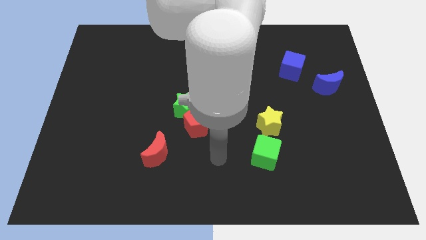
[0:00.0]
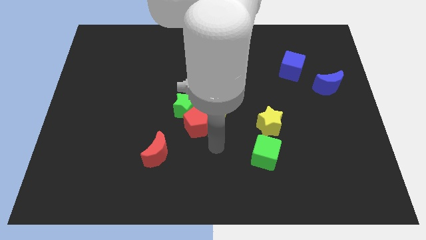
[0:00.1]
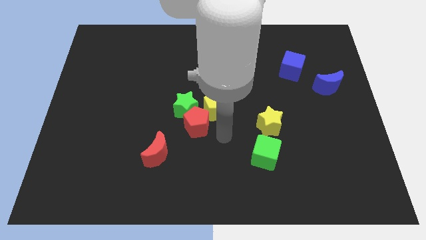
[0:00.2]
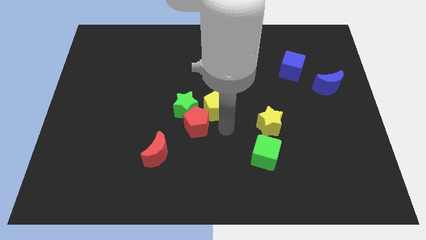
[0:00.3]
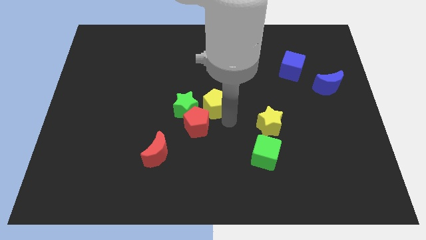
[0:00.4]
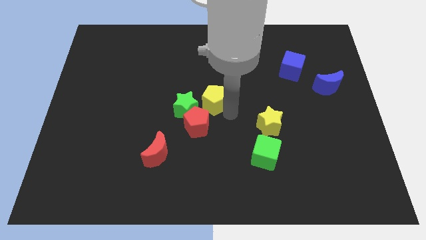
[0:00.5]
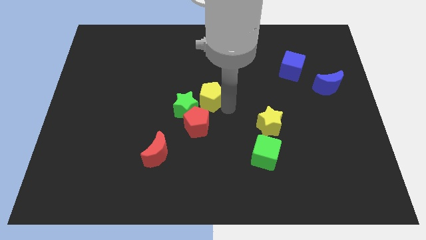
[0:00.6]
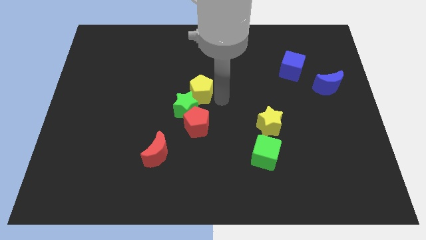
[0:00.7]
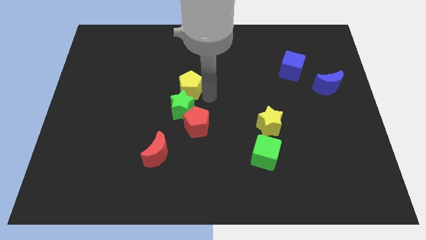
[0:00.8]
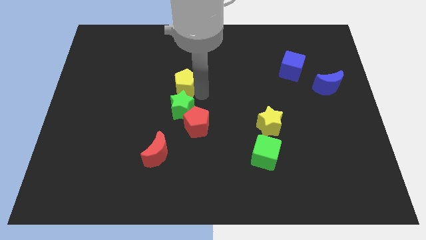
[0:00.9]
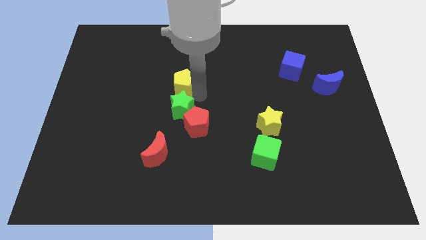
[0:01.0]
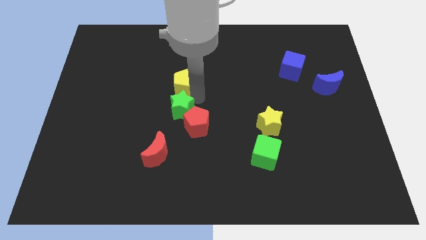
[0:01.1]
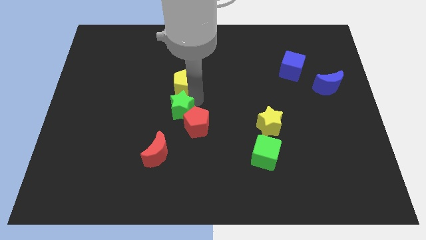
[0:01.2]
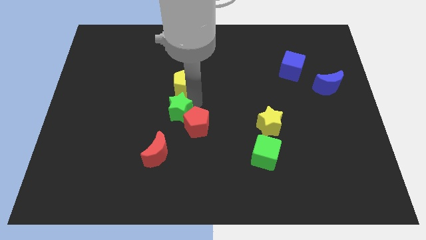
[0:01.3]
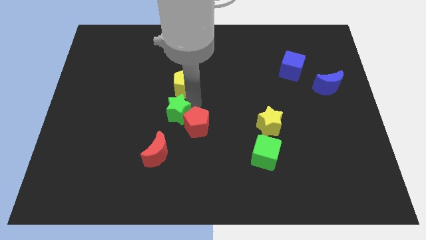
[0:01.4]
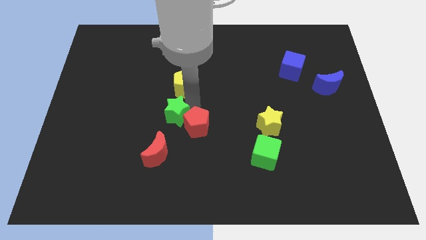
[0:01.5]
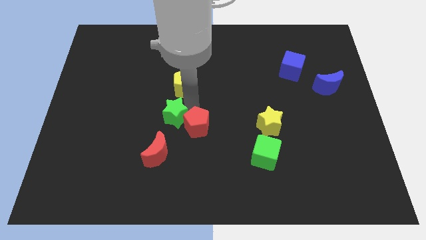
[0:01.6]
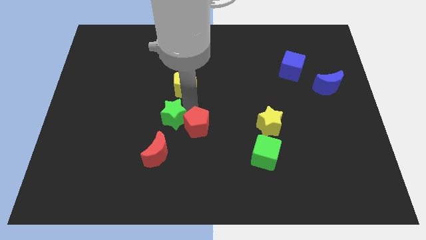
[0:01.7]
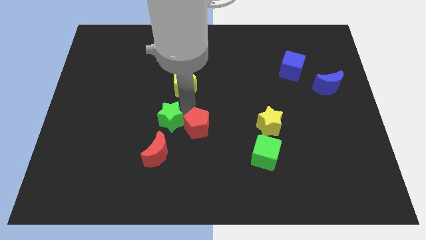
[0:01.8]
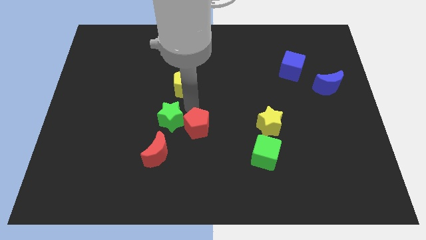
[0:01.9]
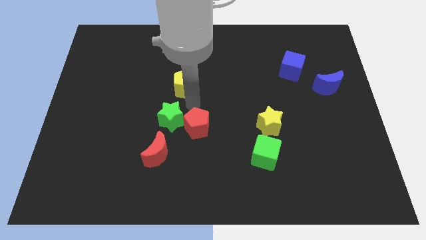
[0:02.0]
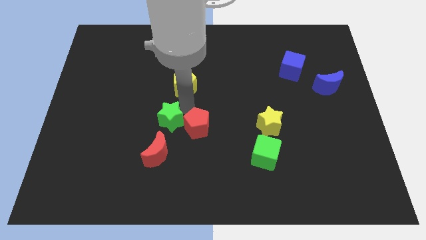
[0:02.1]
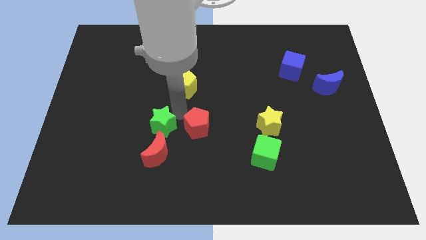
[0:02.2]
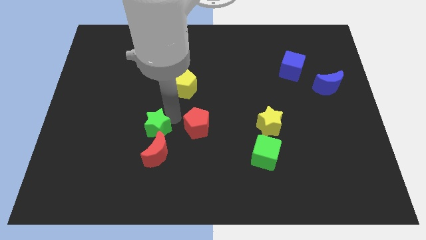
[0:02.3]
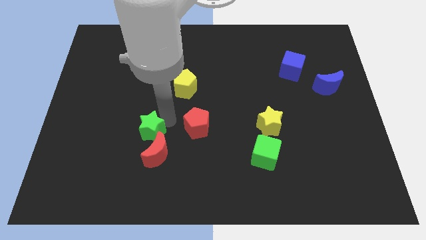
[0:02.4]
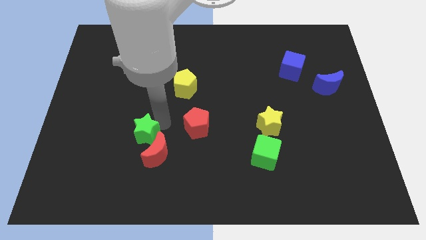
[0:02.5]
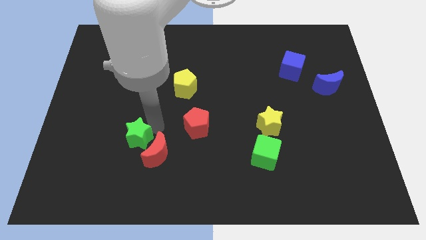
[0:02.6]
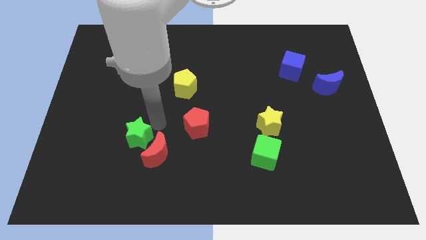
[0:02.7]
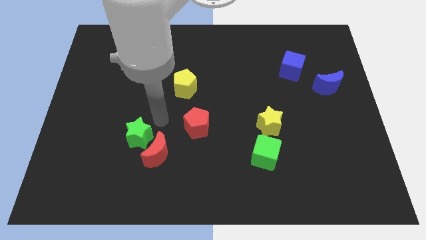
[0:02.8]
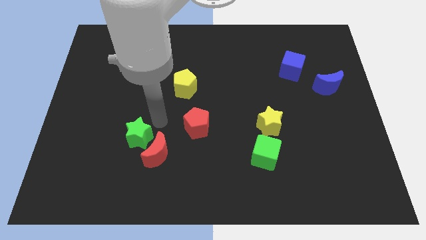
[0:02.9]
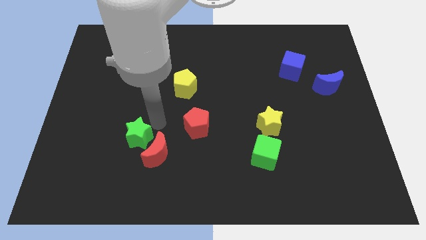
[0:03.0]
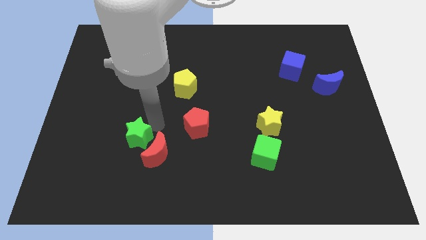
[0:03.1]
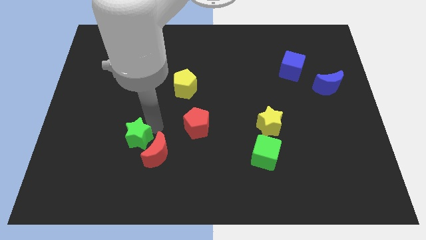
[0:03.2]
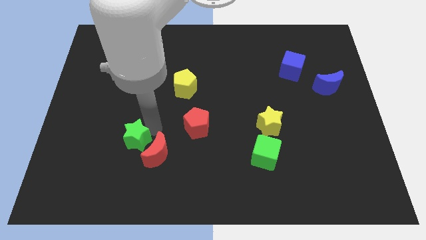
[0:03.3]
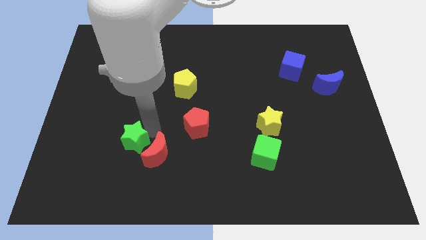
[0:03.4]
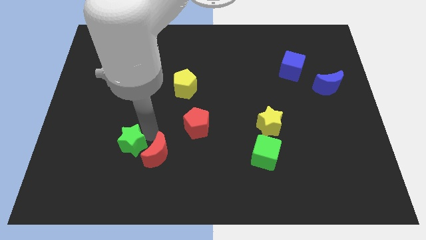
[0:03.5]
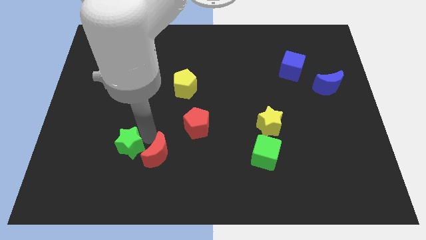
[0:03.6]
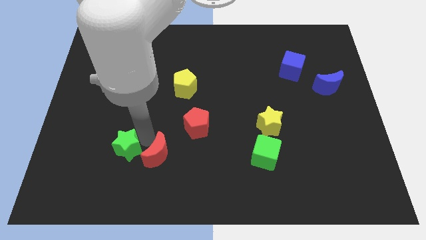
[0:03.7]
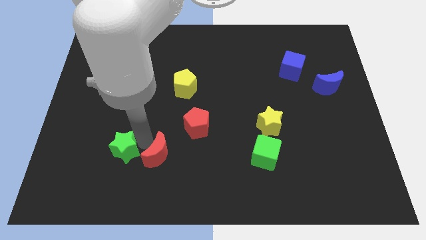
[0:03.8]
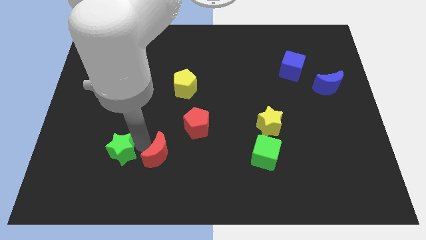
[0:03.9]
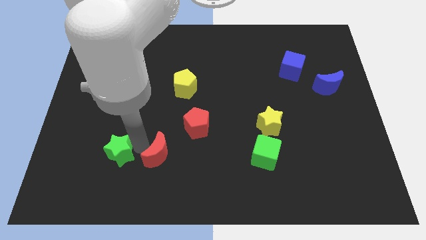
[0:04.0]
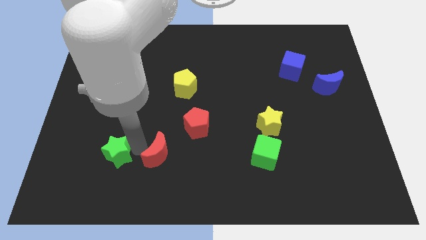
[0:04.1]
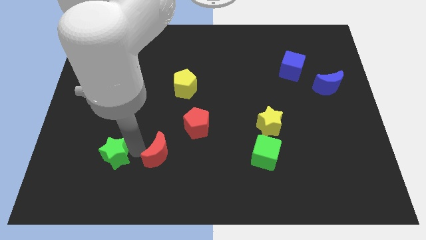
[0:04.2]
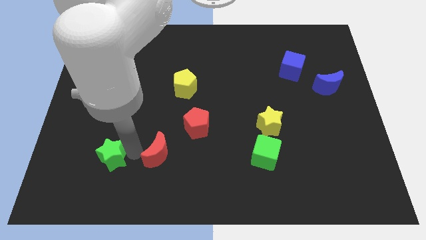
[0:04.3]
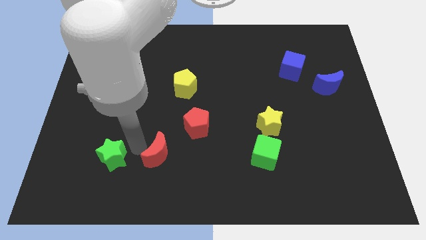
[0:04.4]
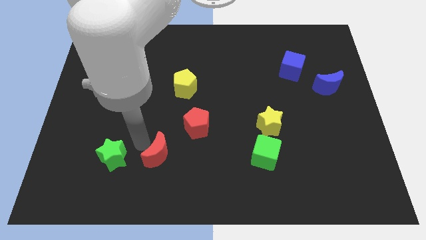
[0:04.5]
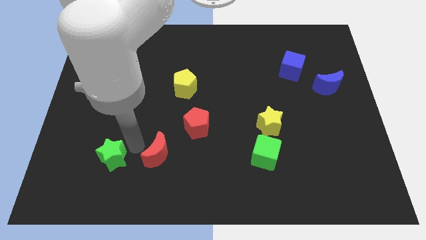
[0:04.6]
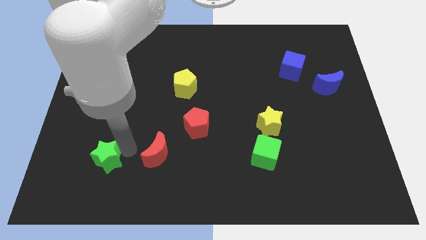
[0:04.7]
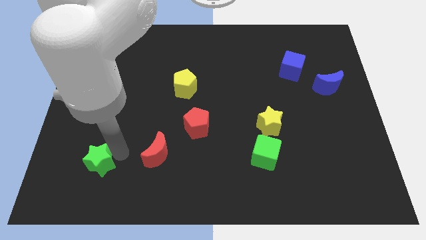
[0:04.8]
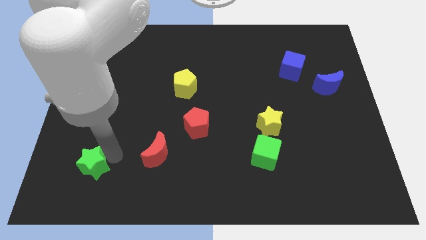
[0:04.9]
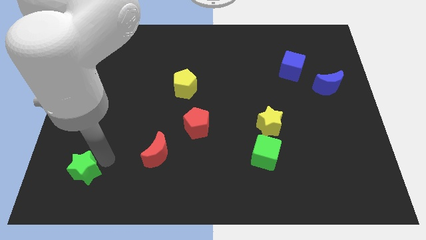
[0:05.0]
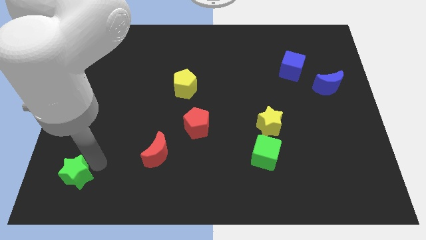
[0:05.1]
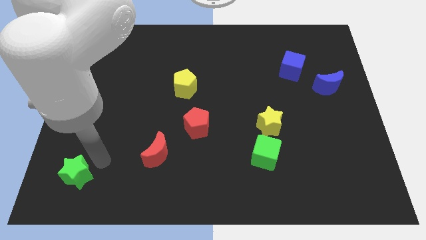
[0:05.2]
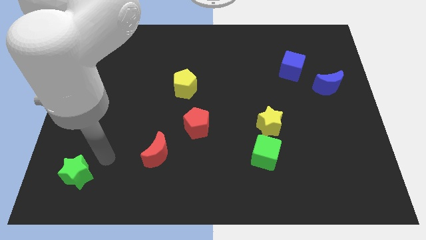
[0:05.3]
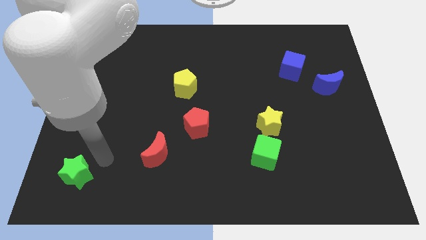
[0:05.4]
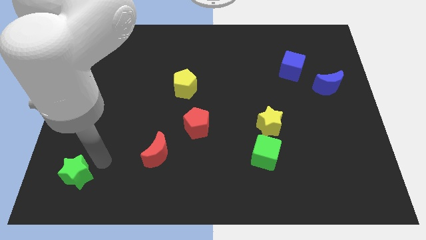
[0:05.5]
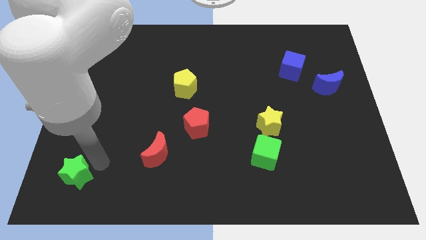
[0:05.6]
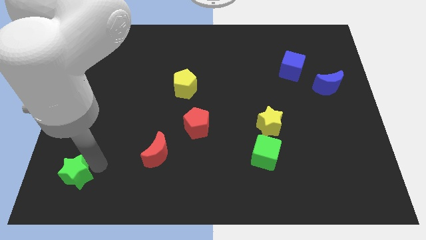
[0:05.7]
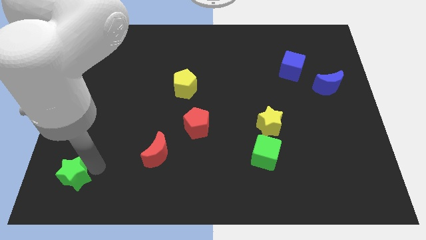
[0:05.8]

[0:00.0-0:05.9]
slide the green star to the lower left corner

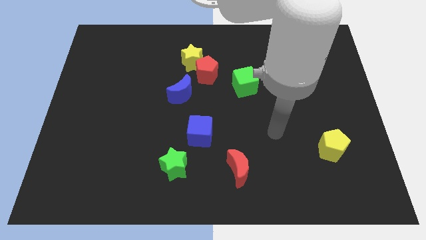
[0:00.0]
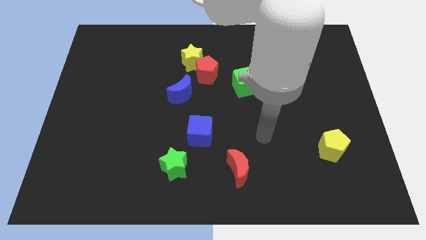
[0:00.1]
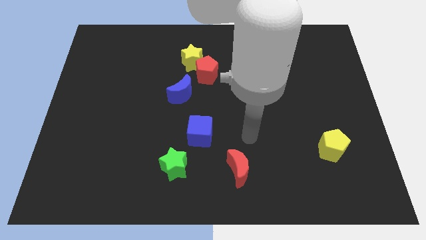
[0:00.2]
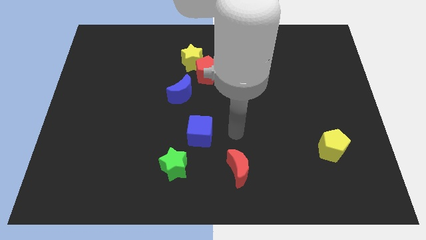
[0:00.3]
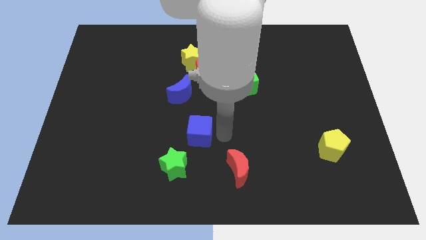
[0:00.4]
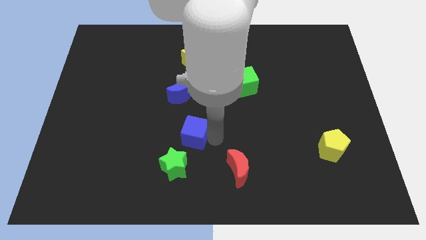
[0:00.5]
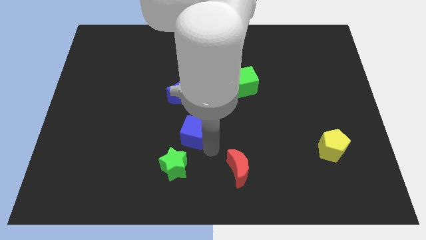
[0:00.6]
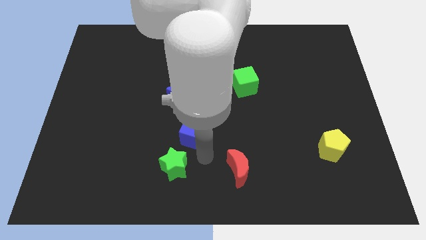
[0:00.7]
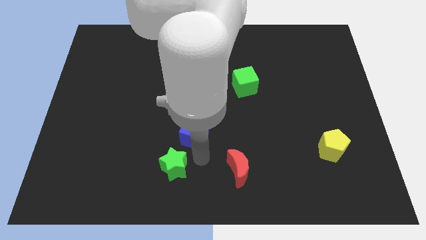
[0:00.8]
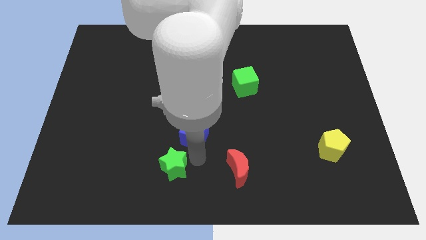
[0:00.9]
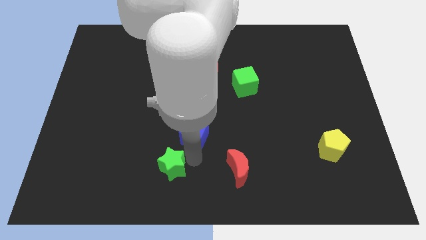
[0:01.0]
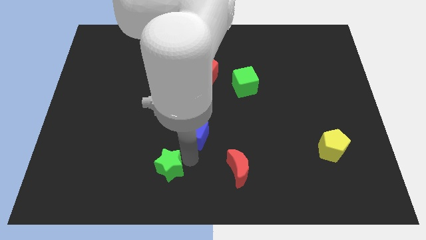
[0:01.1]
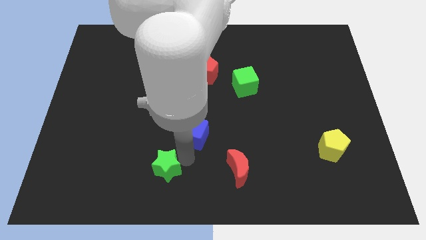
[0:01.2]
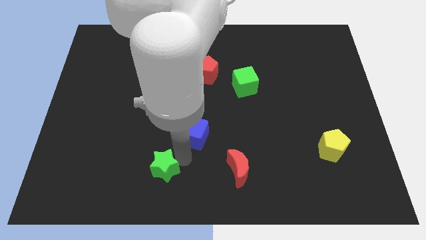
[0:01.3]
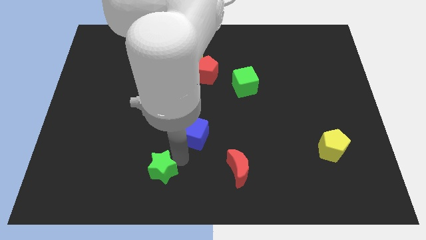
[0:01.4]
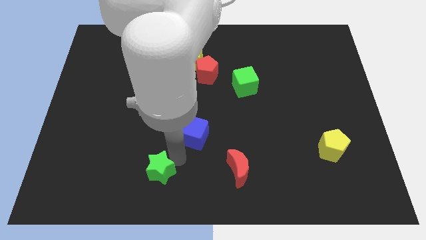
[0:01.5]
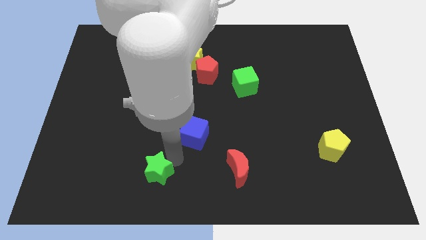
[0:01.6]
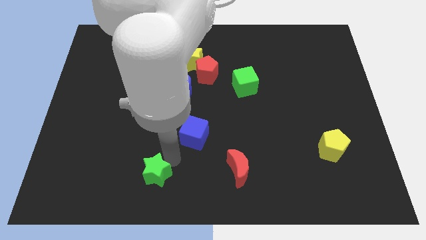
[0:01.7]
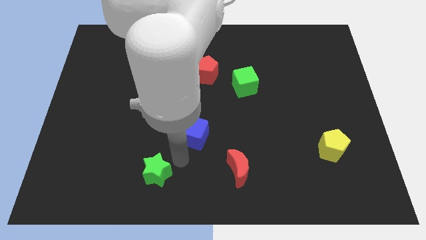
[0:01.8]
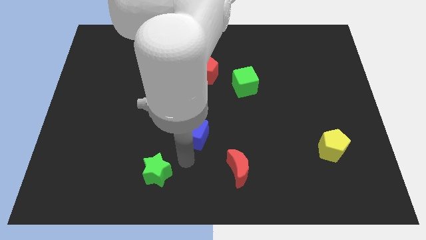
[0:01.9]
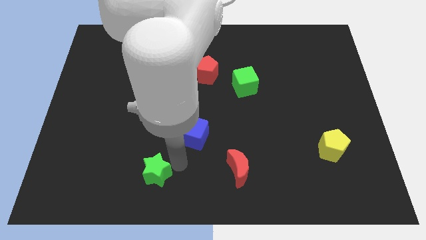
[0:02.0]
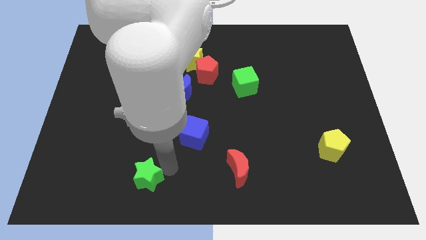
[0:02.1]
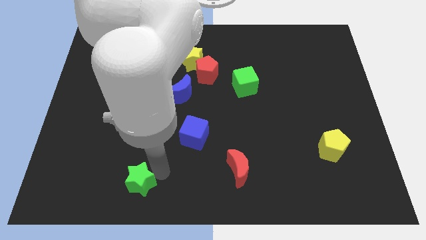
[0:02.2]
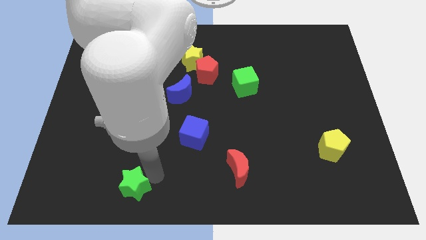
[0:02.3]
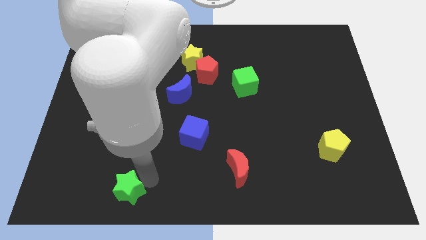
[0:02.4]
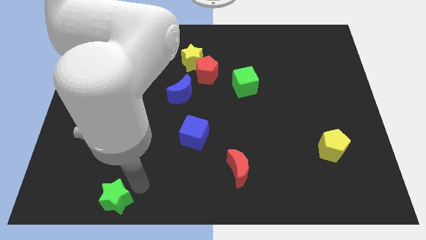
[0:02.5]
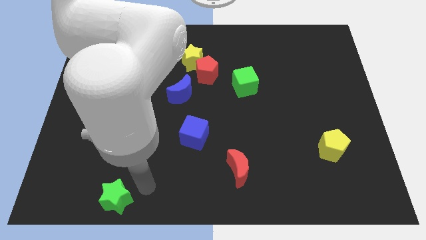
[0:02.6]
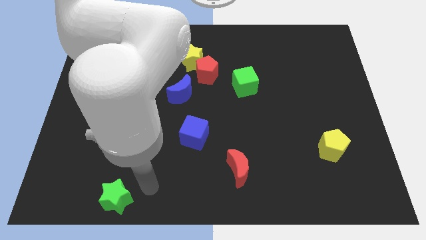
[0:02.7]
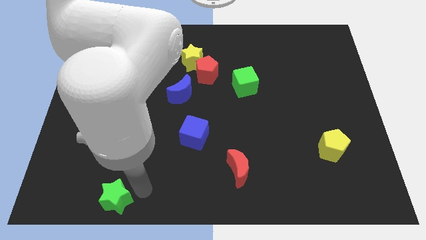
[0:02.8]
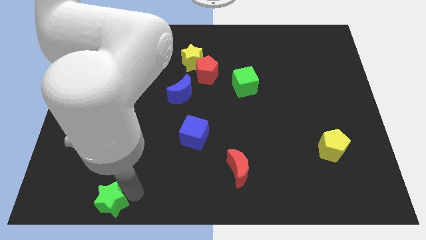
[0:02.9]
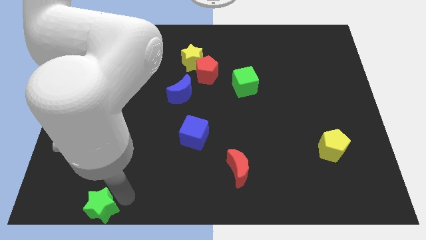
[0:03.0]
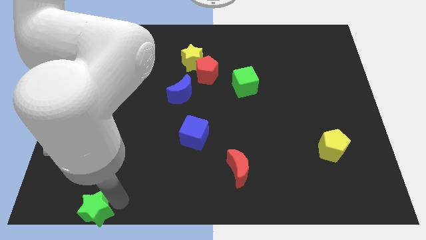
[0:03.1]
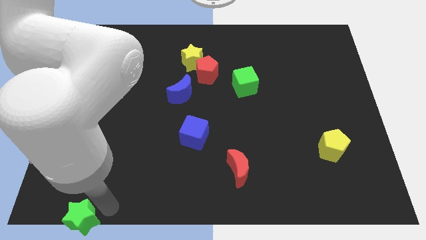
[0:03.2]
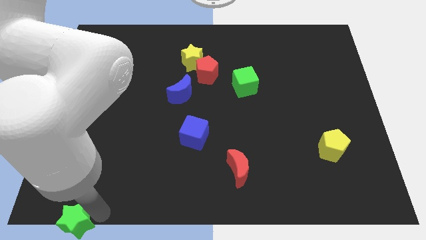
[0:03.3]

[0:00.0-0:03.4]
slide the green star to the bottom left
